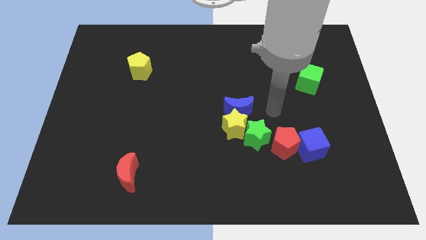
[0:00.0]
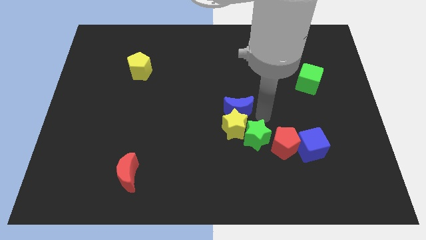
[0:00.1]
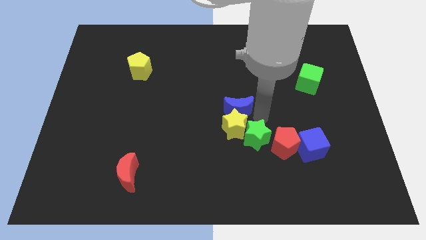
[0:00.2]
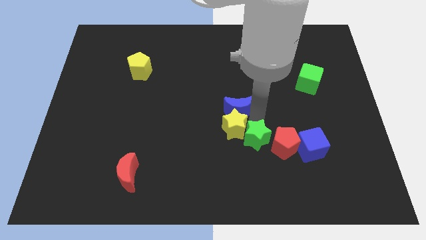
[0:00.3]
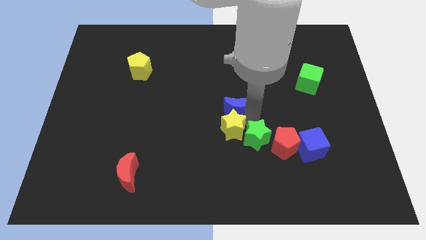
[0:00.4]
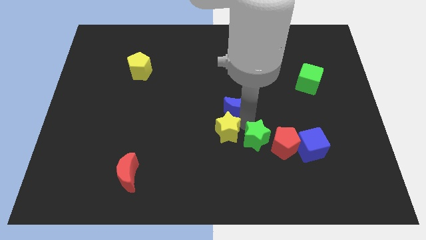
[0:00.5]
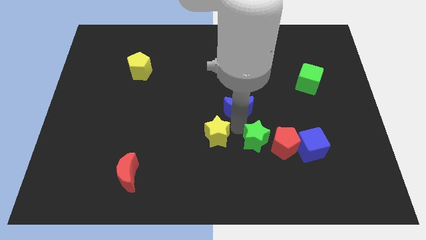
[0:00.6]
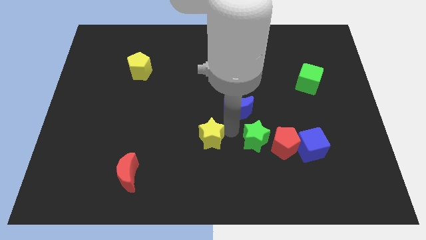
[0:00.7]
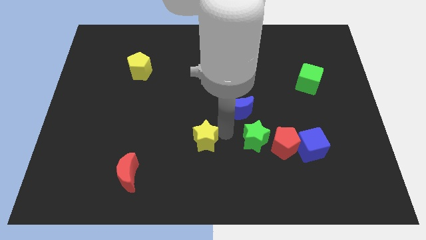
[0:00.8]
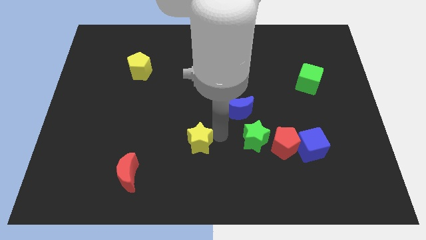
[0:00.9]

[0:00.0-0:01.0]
separate the yellow star from the blue moon and green star

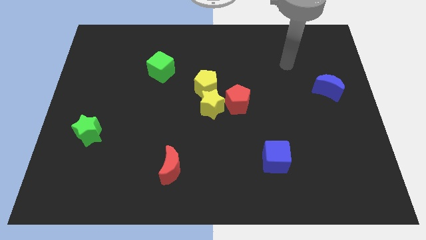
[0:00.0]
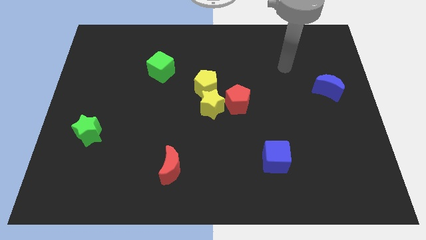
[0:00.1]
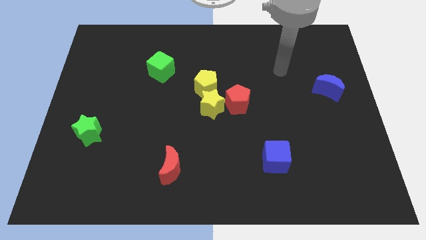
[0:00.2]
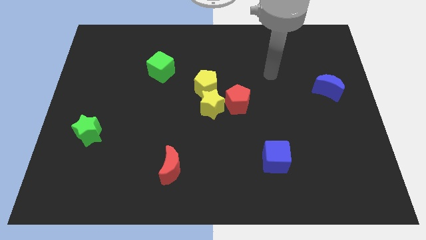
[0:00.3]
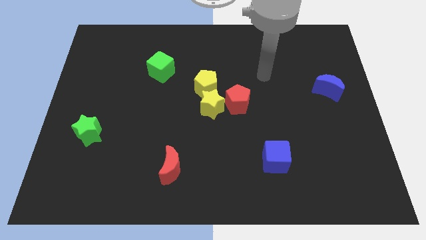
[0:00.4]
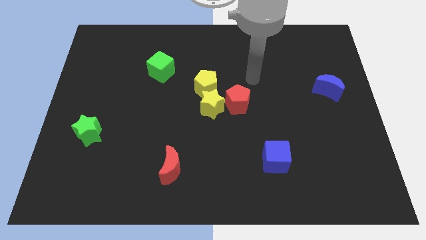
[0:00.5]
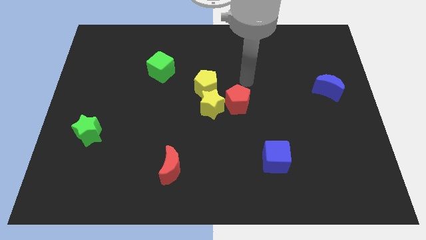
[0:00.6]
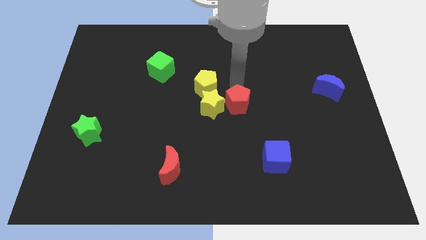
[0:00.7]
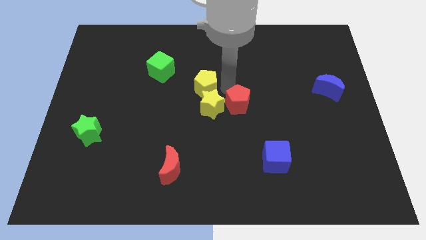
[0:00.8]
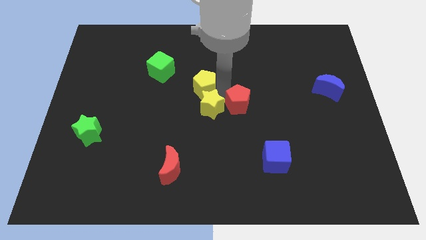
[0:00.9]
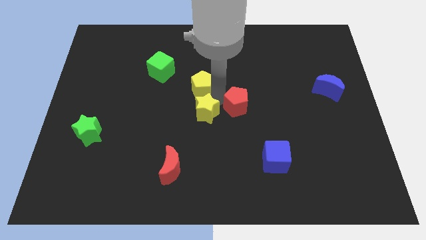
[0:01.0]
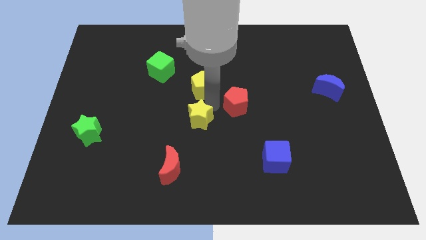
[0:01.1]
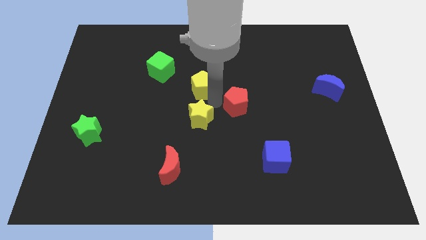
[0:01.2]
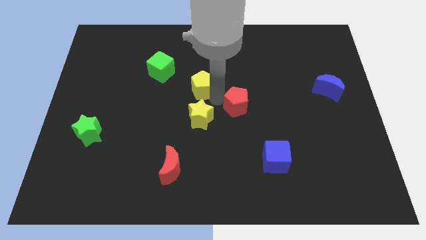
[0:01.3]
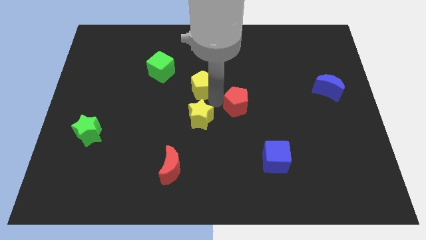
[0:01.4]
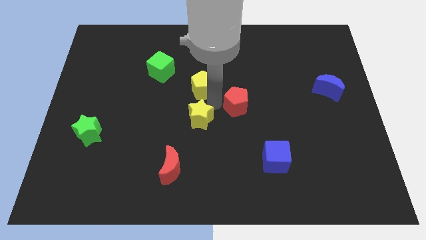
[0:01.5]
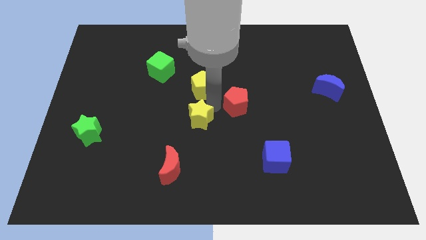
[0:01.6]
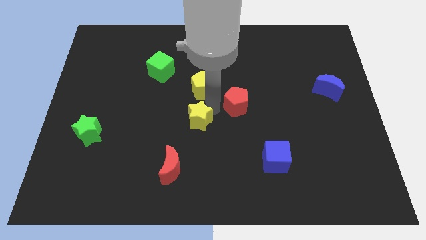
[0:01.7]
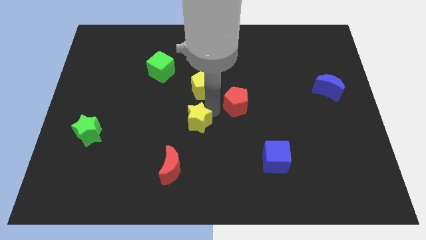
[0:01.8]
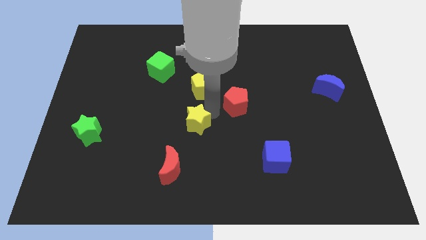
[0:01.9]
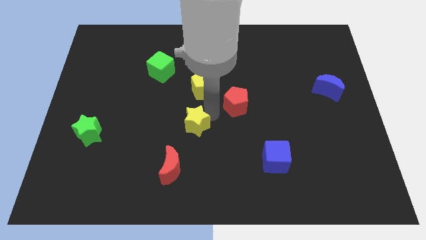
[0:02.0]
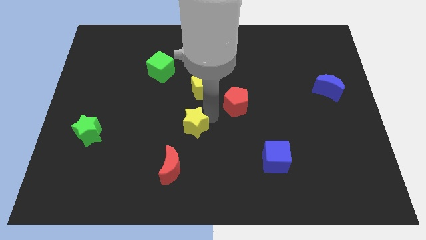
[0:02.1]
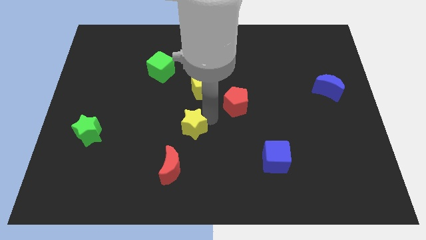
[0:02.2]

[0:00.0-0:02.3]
move the yellow star away from the yellow pentagon and red pentagon

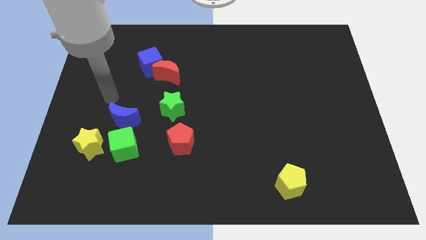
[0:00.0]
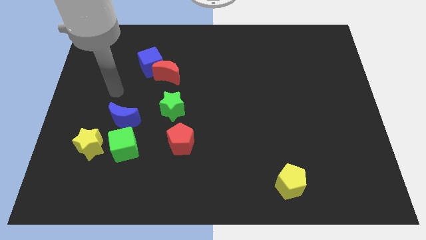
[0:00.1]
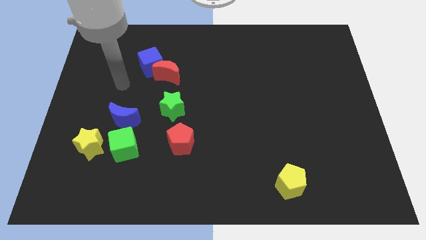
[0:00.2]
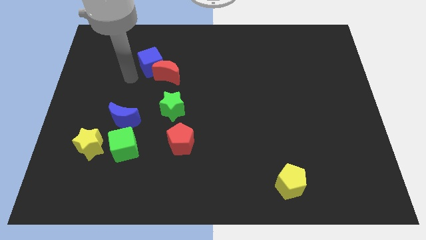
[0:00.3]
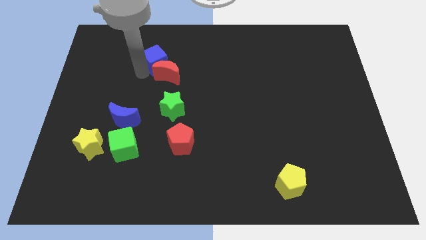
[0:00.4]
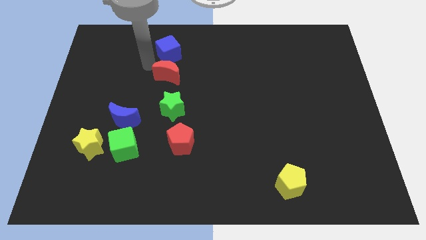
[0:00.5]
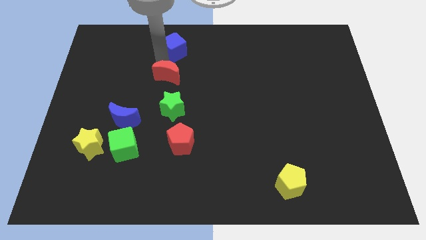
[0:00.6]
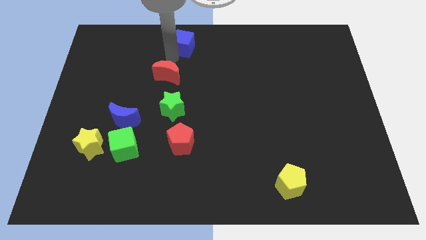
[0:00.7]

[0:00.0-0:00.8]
pull the red moon apart from the blue cube

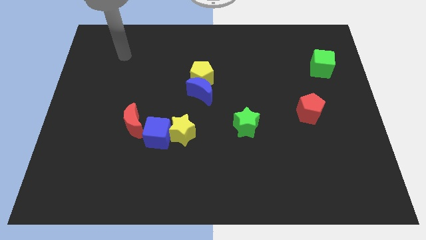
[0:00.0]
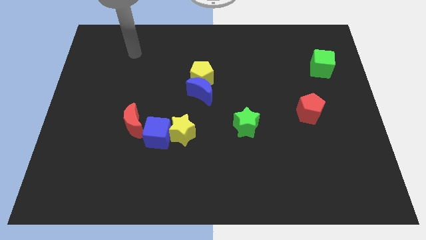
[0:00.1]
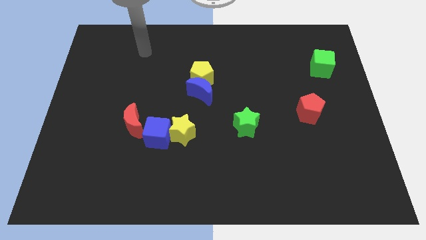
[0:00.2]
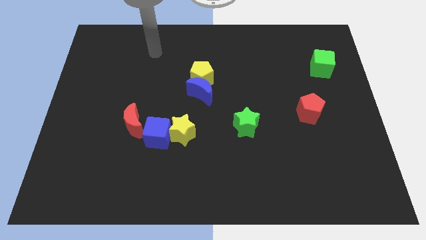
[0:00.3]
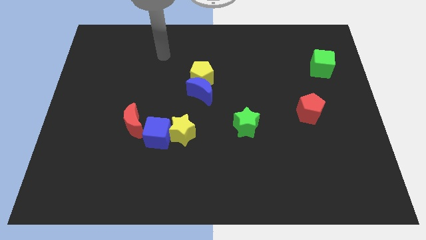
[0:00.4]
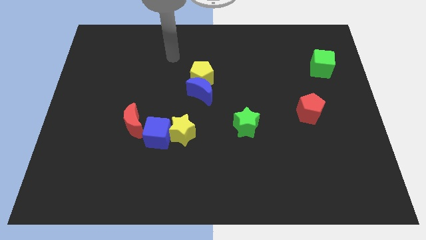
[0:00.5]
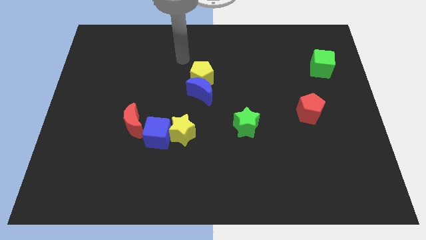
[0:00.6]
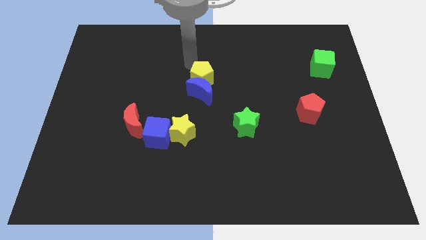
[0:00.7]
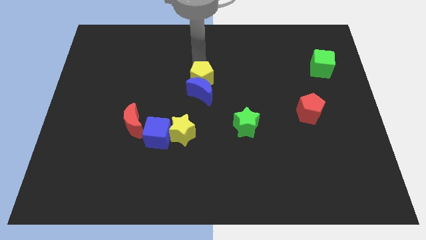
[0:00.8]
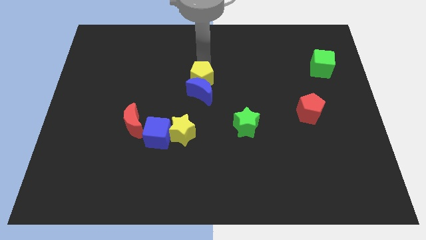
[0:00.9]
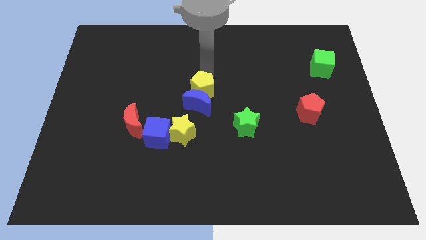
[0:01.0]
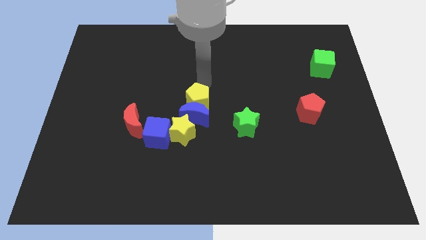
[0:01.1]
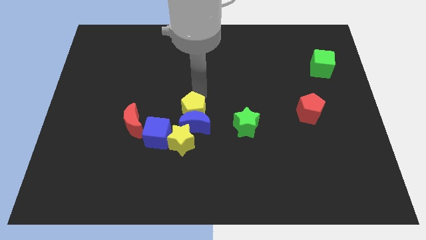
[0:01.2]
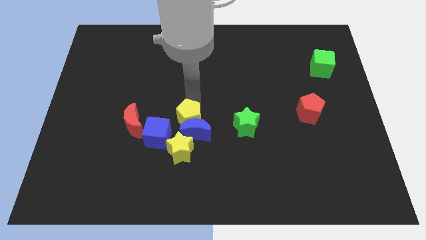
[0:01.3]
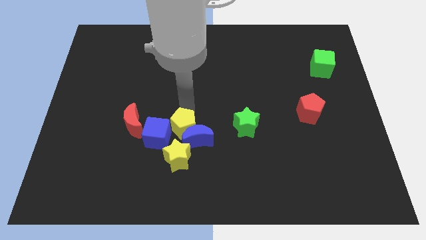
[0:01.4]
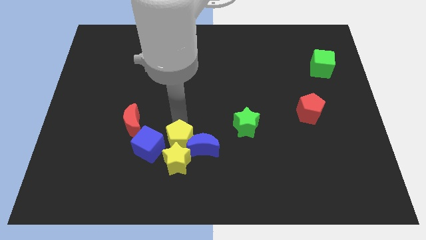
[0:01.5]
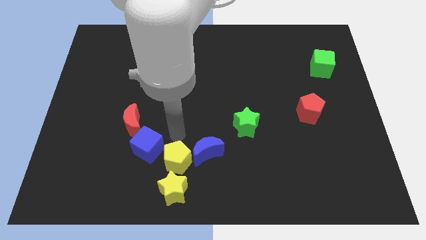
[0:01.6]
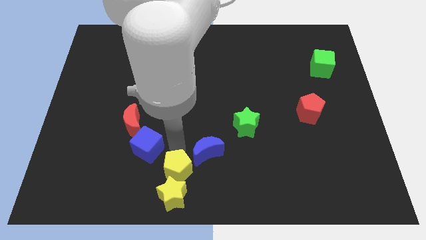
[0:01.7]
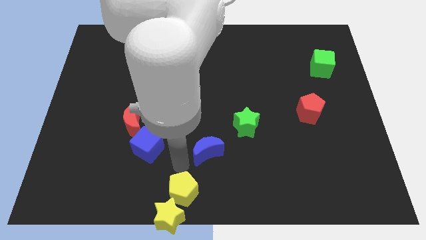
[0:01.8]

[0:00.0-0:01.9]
separate the blue moon from the yellow pentagon

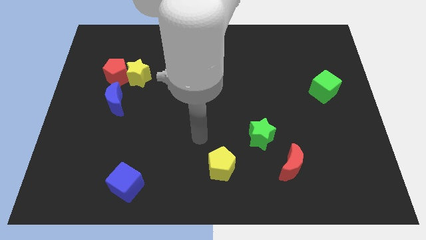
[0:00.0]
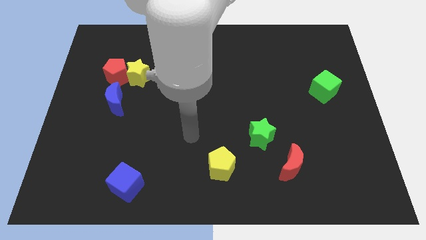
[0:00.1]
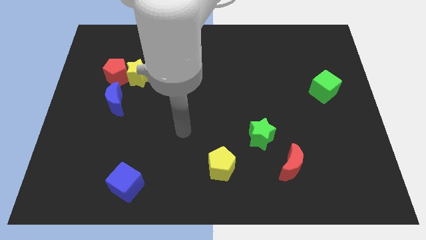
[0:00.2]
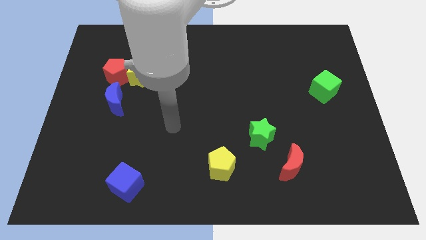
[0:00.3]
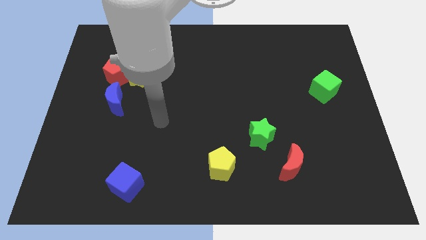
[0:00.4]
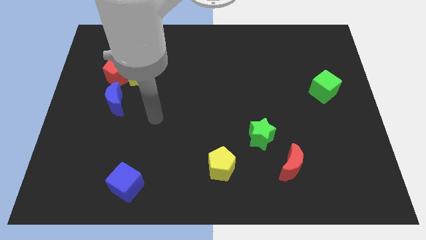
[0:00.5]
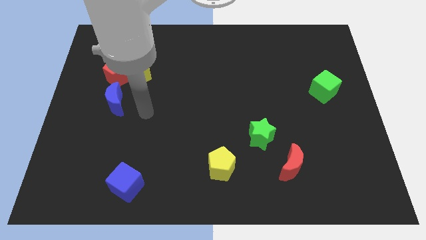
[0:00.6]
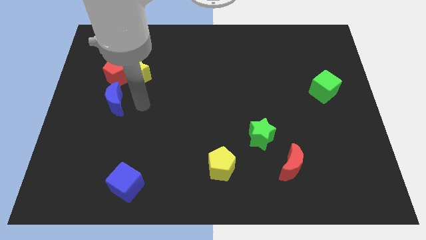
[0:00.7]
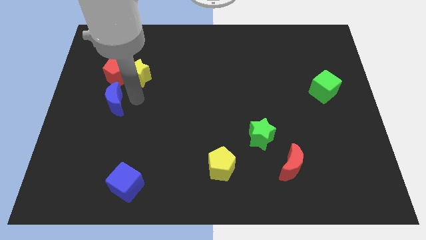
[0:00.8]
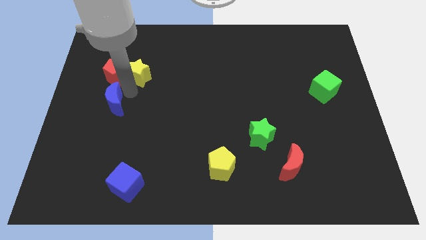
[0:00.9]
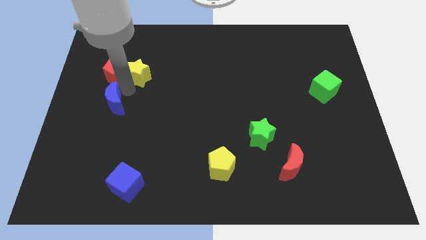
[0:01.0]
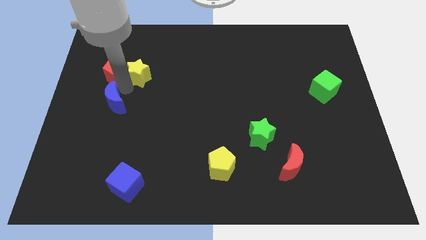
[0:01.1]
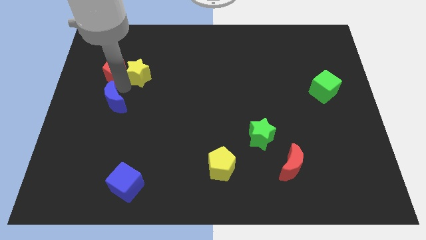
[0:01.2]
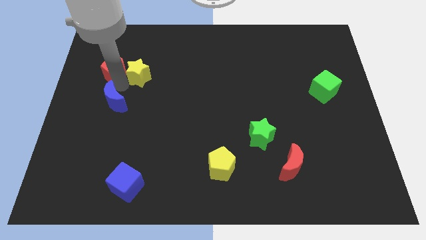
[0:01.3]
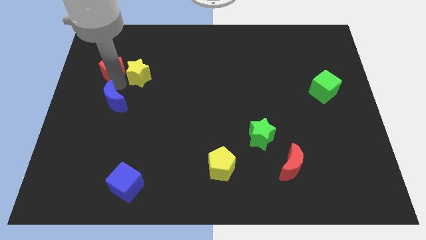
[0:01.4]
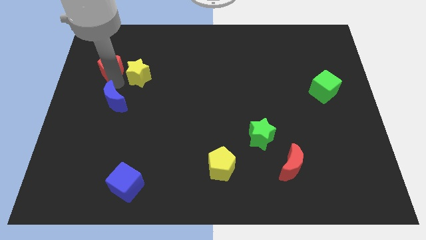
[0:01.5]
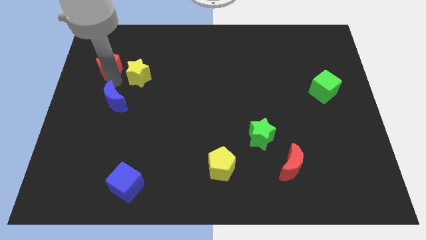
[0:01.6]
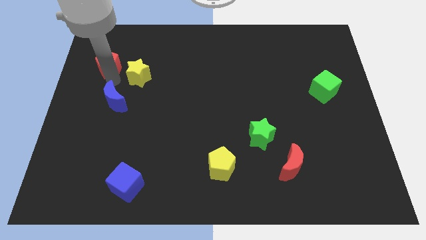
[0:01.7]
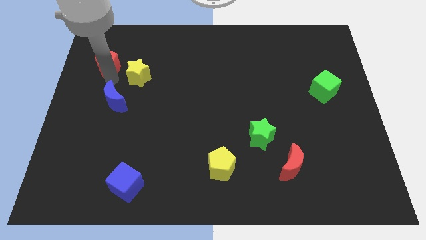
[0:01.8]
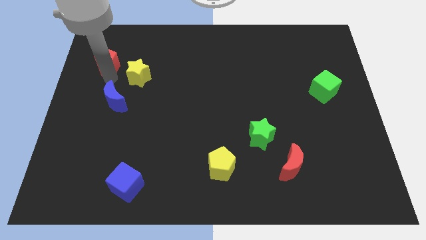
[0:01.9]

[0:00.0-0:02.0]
separate the red pentagon from the yellow star and blue moon

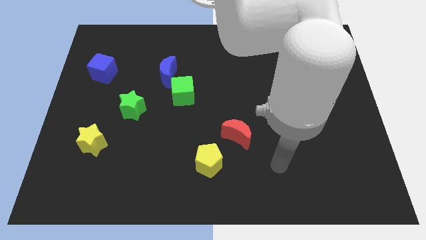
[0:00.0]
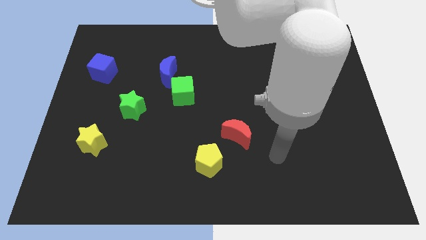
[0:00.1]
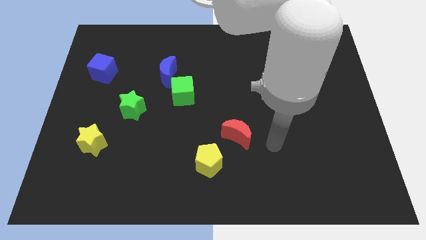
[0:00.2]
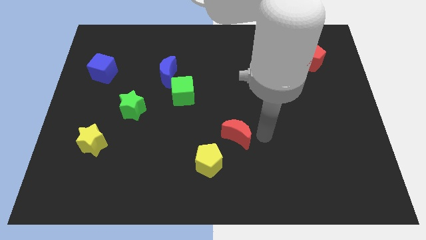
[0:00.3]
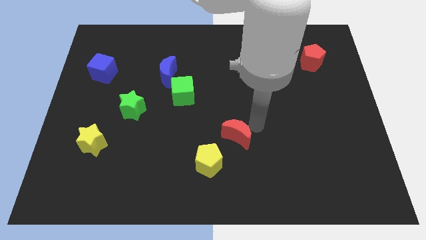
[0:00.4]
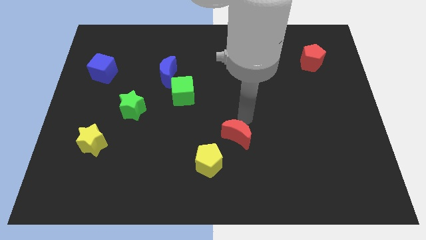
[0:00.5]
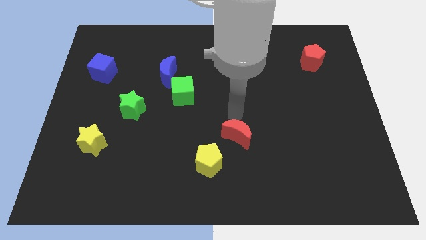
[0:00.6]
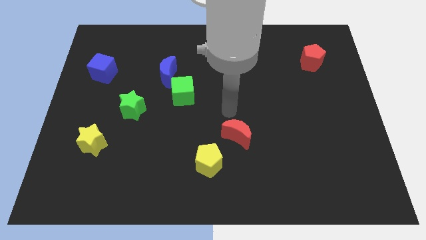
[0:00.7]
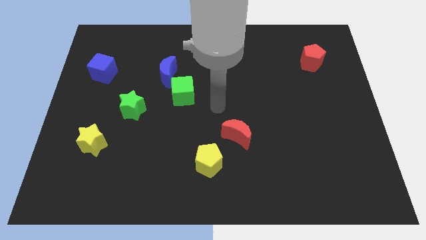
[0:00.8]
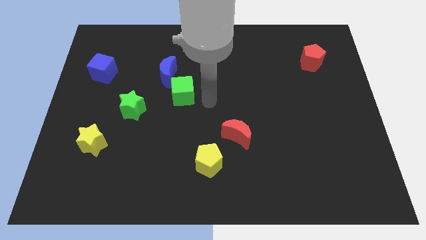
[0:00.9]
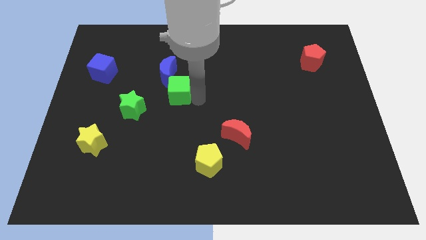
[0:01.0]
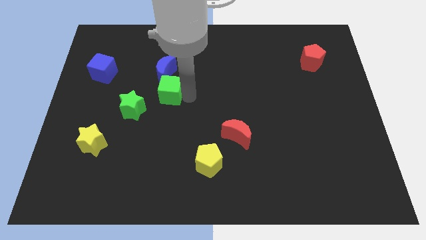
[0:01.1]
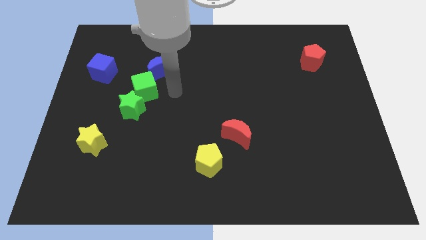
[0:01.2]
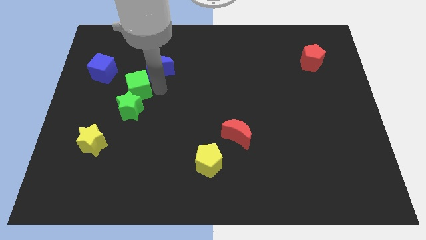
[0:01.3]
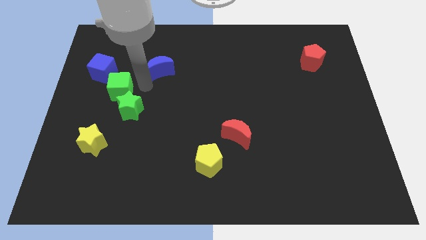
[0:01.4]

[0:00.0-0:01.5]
separate the blue moon from the green cube
